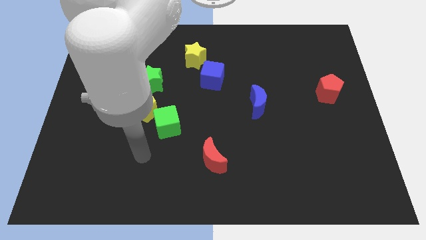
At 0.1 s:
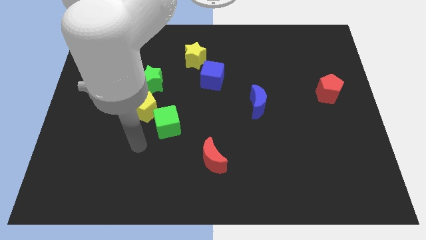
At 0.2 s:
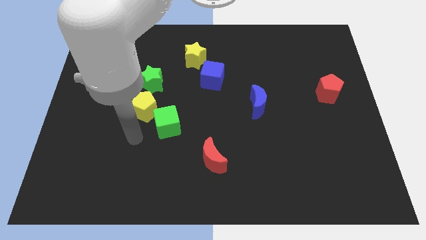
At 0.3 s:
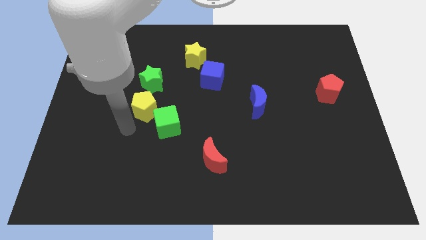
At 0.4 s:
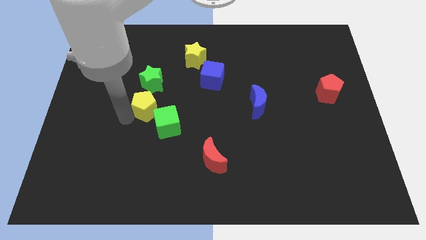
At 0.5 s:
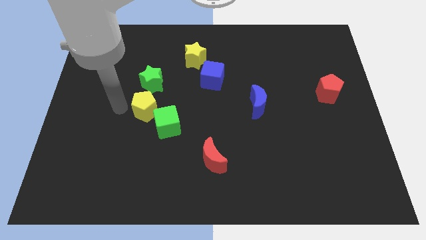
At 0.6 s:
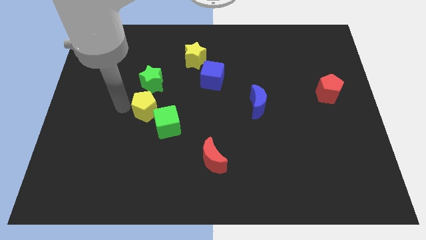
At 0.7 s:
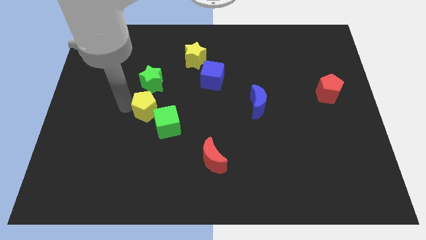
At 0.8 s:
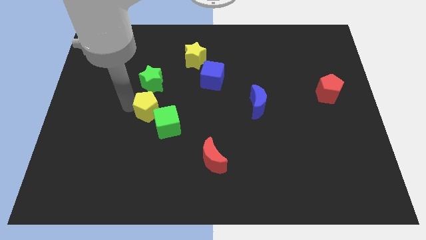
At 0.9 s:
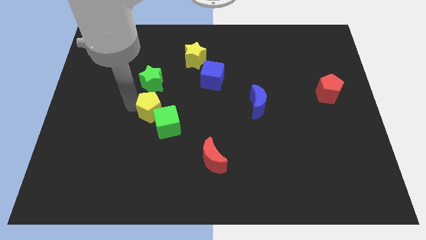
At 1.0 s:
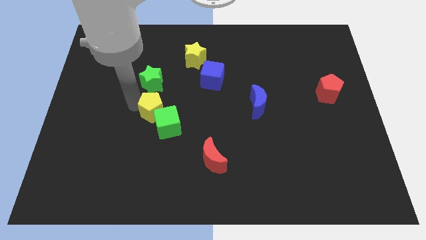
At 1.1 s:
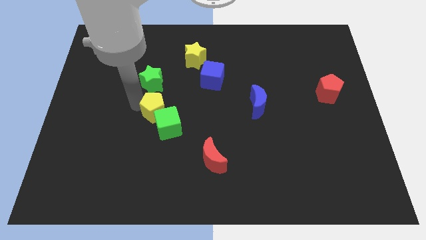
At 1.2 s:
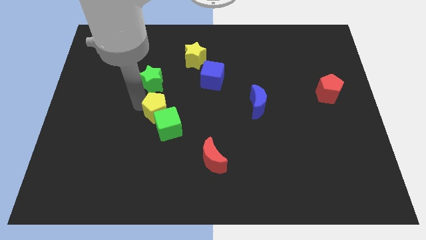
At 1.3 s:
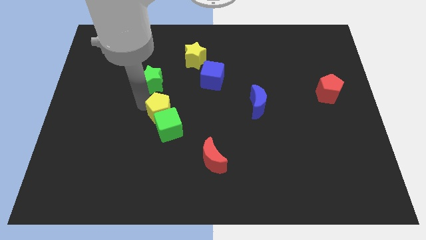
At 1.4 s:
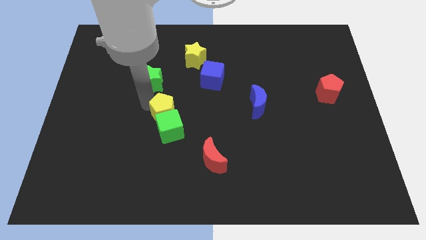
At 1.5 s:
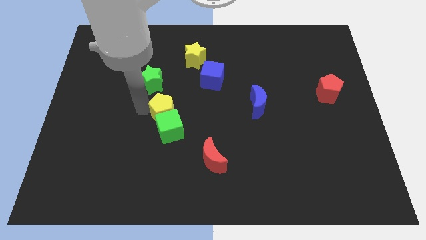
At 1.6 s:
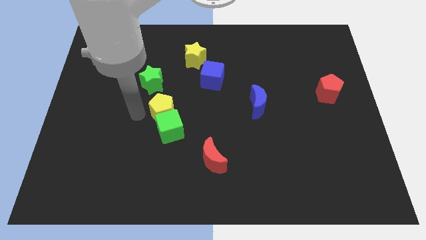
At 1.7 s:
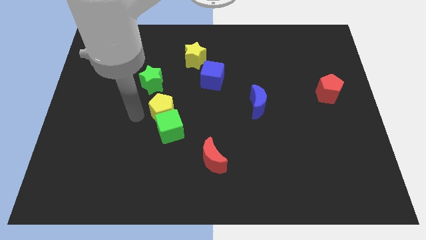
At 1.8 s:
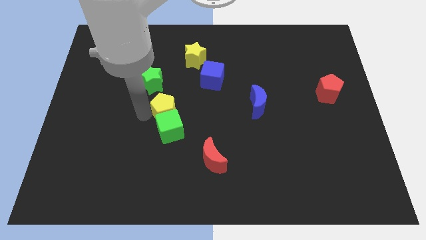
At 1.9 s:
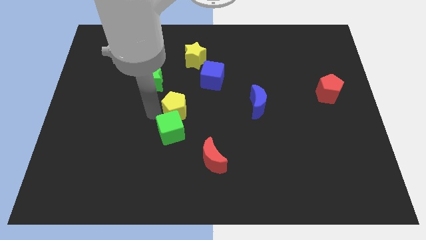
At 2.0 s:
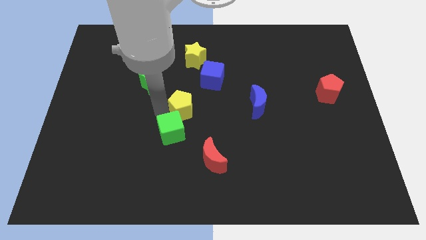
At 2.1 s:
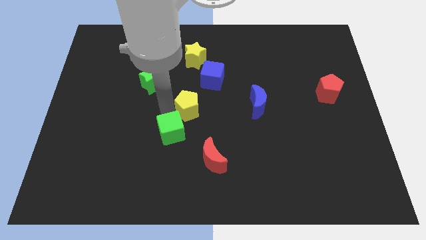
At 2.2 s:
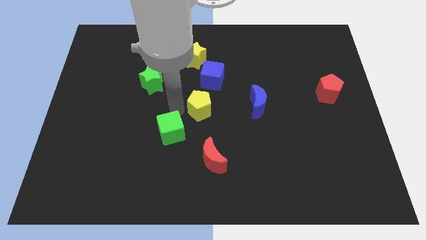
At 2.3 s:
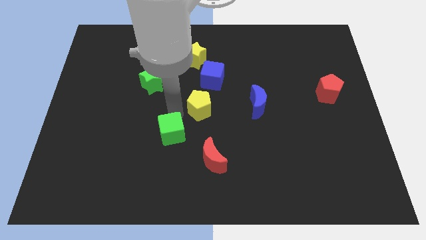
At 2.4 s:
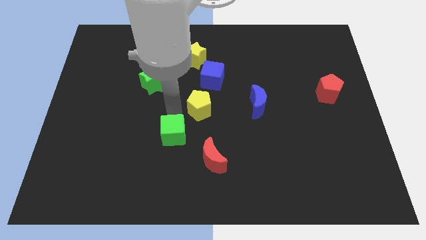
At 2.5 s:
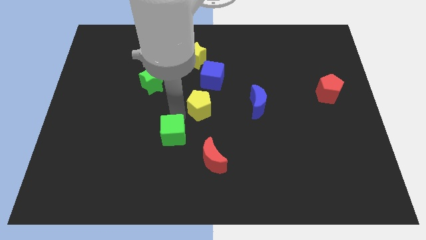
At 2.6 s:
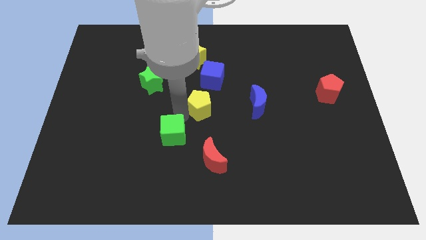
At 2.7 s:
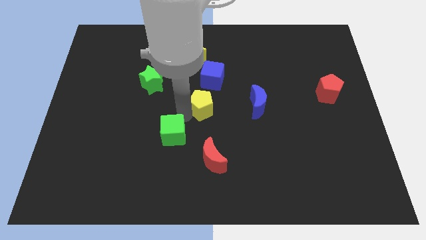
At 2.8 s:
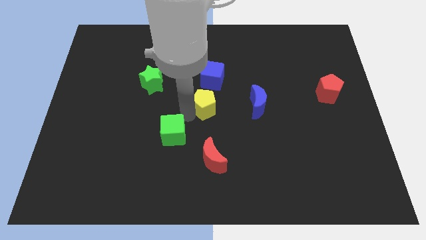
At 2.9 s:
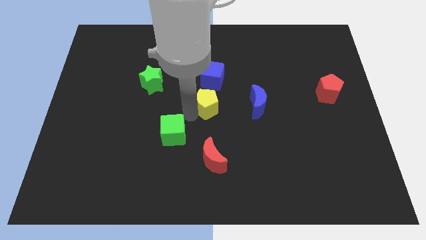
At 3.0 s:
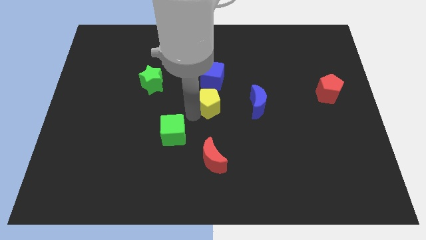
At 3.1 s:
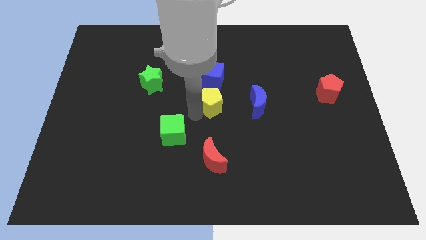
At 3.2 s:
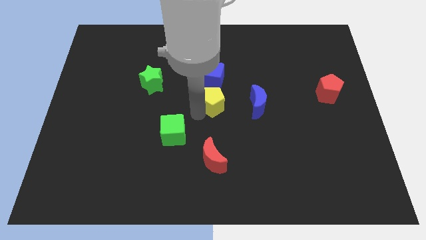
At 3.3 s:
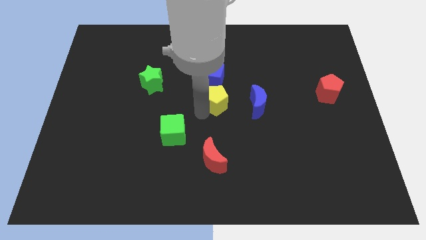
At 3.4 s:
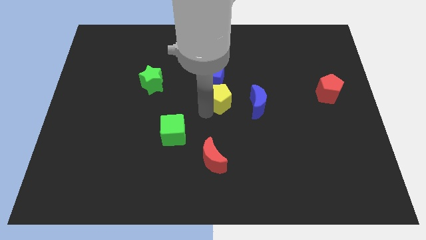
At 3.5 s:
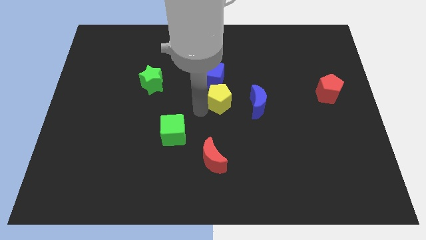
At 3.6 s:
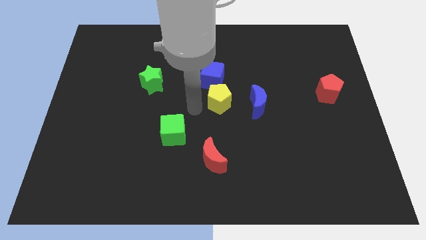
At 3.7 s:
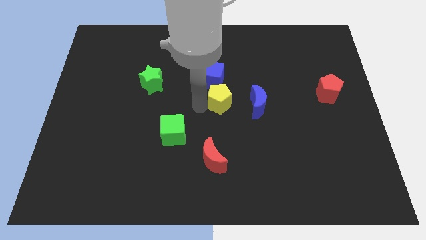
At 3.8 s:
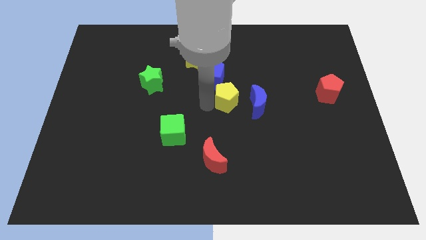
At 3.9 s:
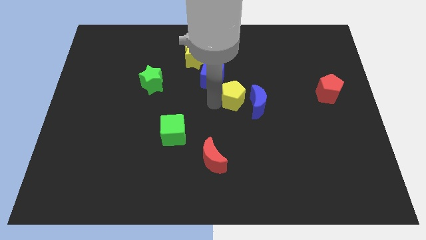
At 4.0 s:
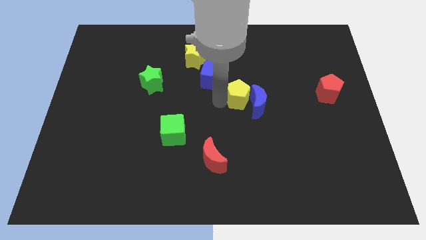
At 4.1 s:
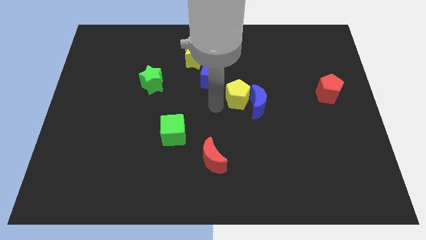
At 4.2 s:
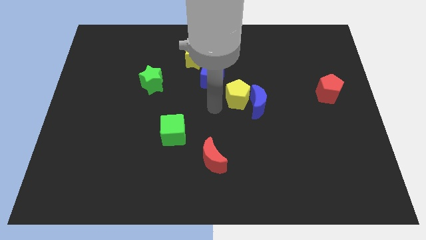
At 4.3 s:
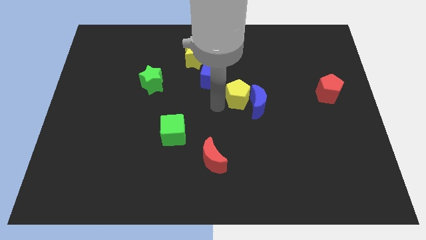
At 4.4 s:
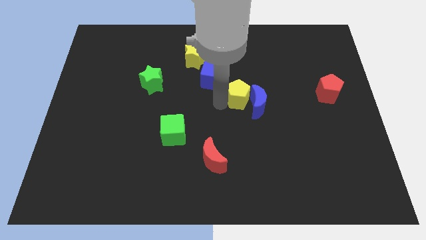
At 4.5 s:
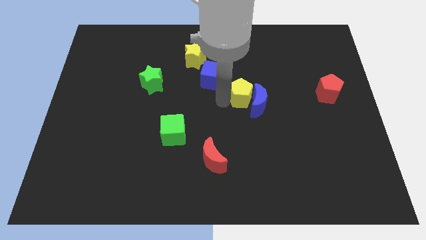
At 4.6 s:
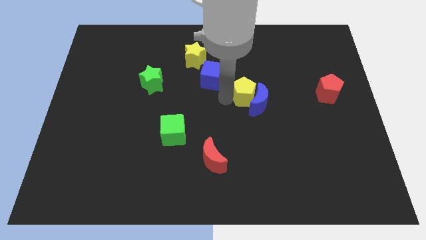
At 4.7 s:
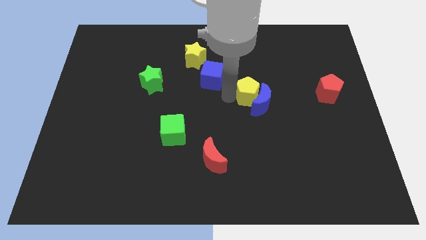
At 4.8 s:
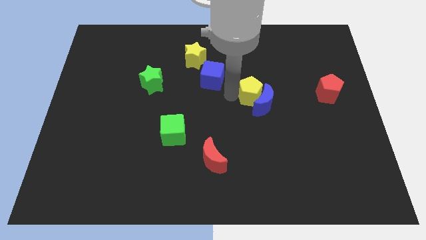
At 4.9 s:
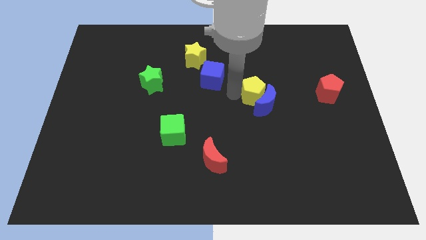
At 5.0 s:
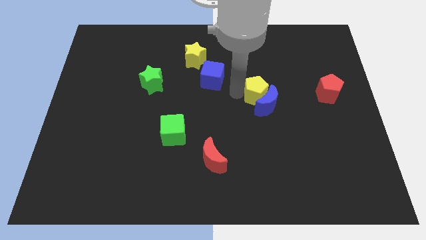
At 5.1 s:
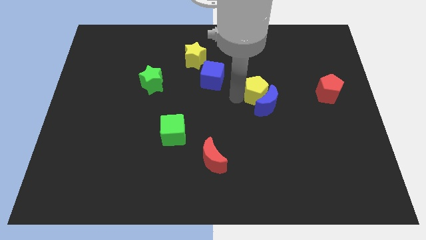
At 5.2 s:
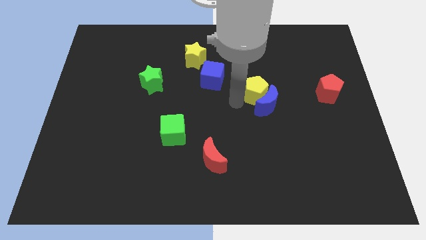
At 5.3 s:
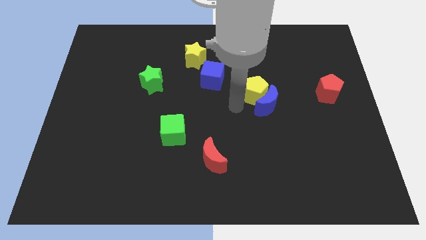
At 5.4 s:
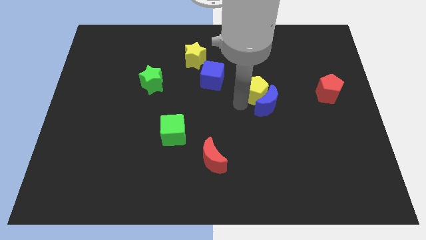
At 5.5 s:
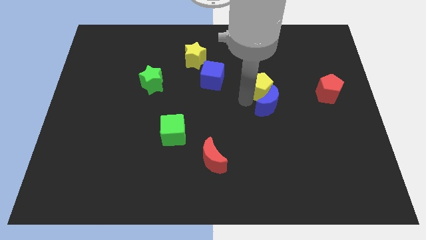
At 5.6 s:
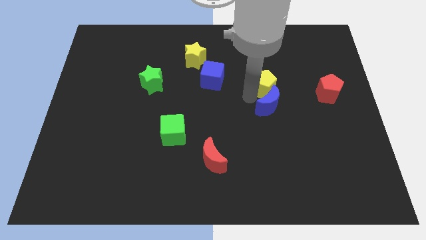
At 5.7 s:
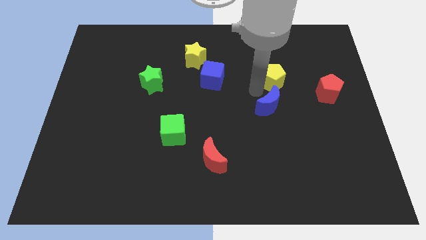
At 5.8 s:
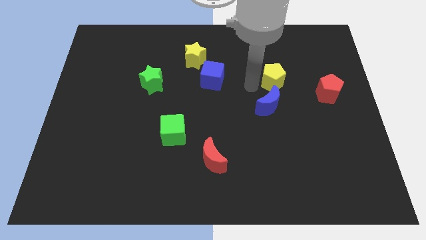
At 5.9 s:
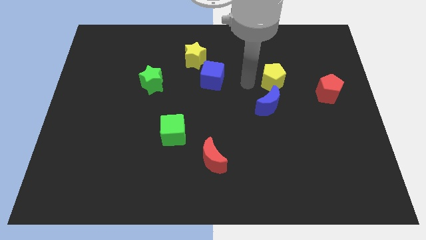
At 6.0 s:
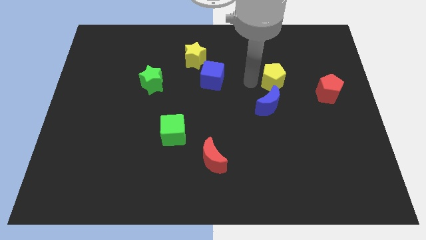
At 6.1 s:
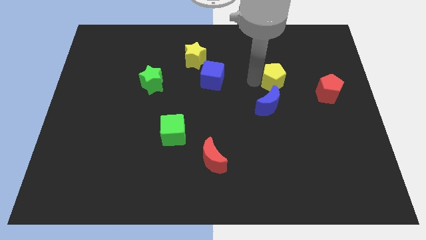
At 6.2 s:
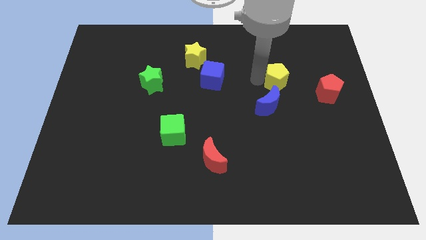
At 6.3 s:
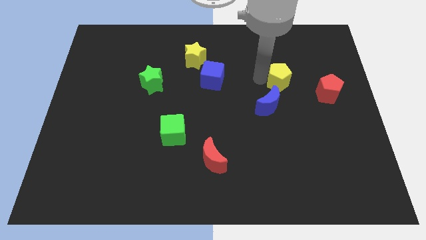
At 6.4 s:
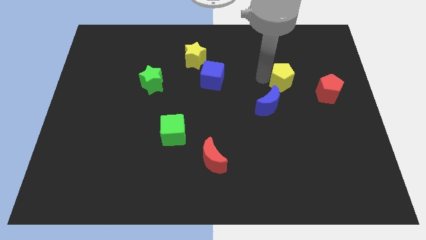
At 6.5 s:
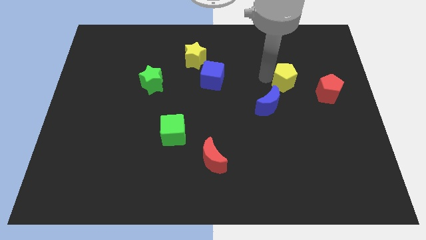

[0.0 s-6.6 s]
slide the yellow pentagon to the top left side of the red pentagon

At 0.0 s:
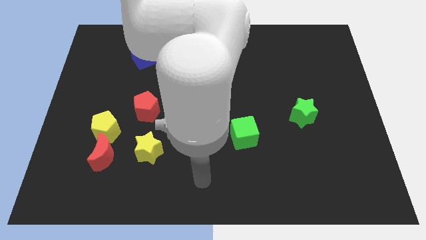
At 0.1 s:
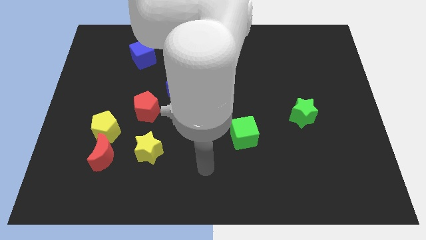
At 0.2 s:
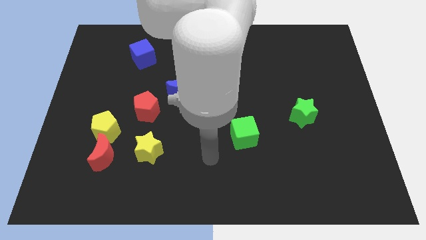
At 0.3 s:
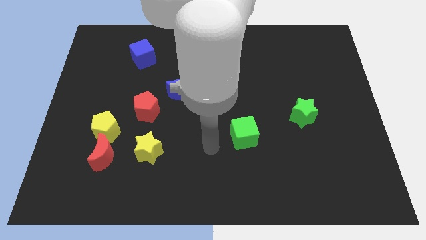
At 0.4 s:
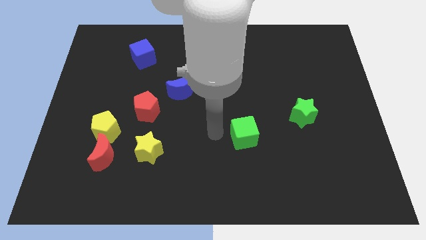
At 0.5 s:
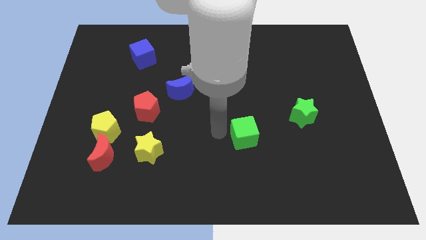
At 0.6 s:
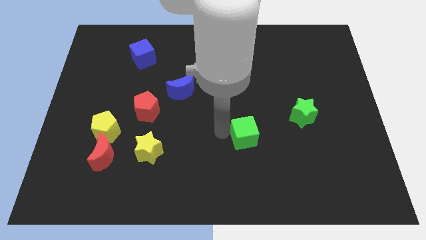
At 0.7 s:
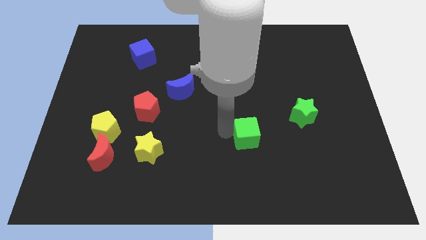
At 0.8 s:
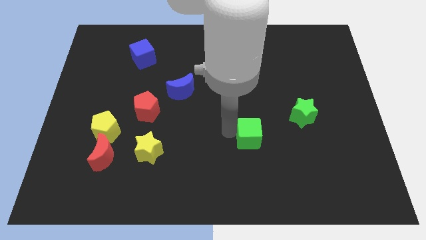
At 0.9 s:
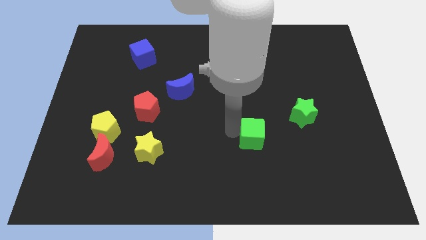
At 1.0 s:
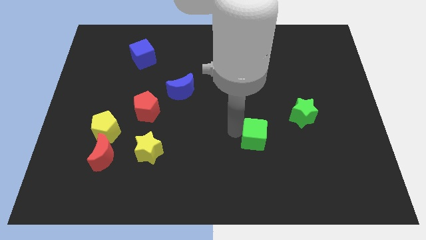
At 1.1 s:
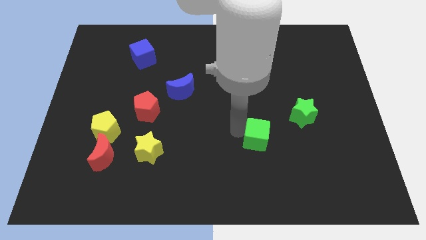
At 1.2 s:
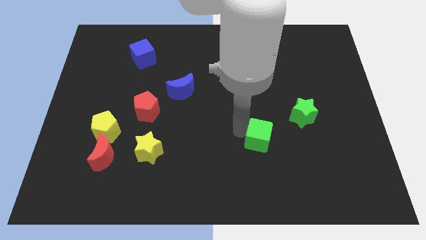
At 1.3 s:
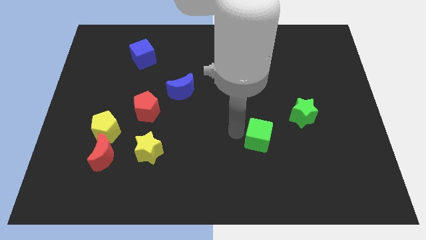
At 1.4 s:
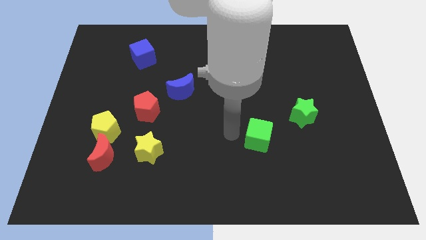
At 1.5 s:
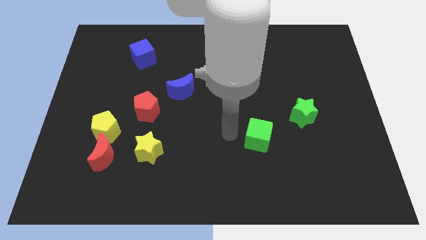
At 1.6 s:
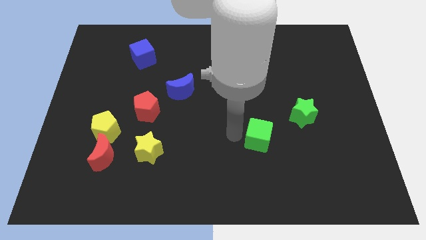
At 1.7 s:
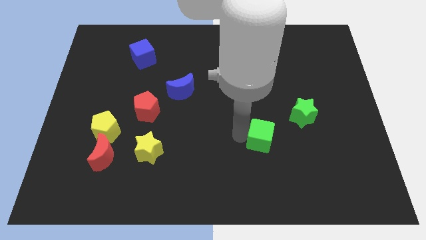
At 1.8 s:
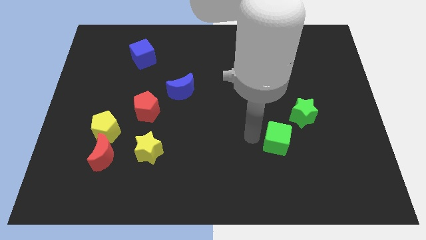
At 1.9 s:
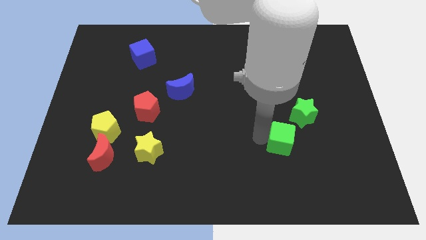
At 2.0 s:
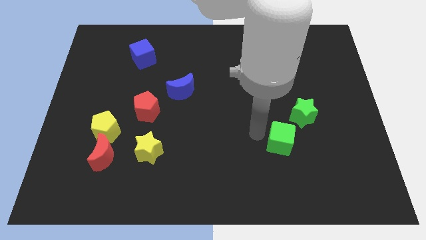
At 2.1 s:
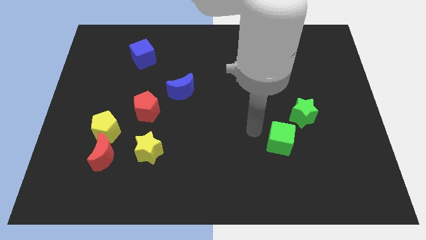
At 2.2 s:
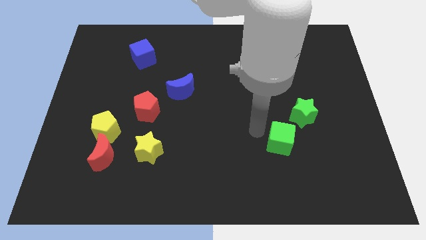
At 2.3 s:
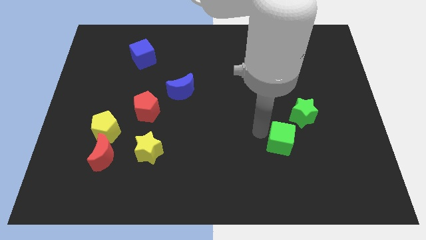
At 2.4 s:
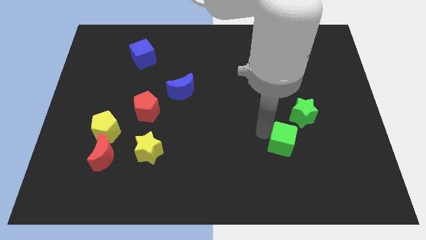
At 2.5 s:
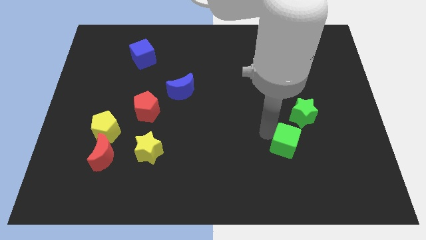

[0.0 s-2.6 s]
put the green cube to the bottom side of the green star
